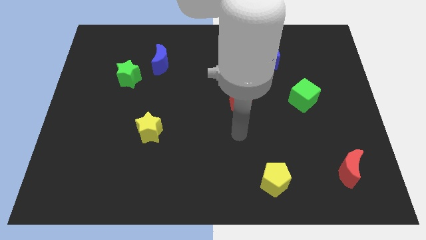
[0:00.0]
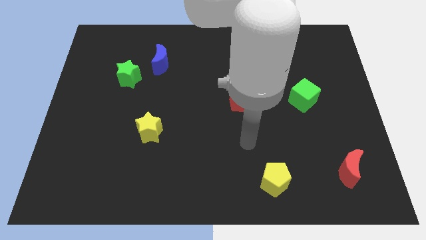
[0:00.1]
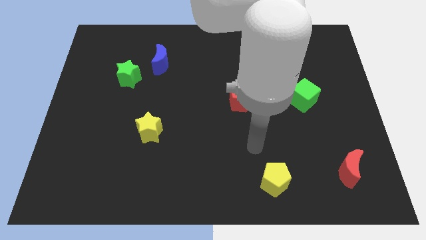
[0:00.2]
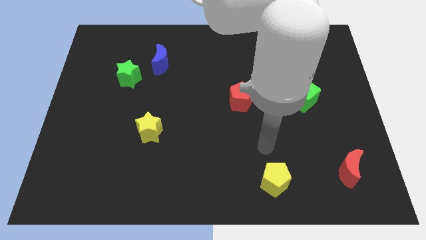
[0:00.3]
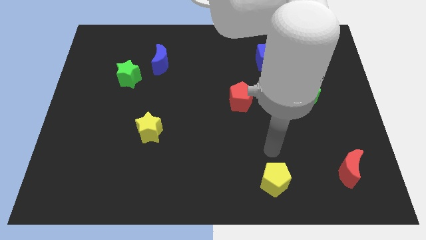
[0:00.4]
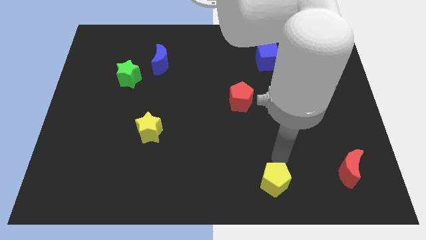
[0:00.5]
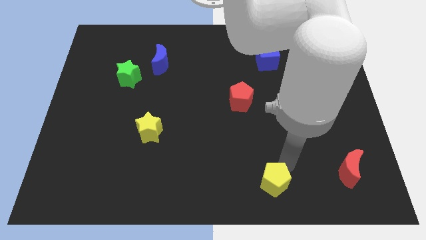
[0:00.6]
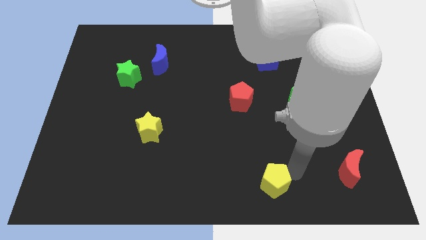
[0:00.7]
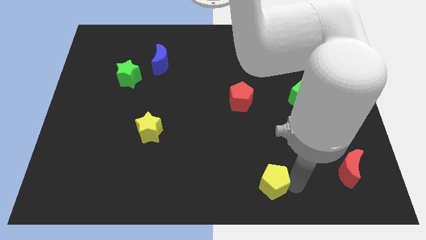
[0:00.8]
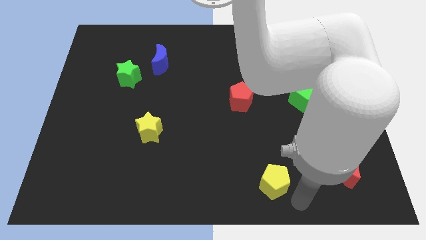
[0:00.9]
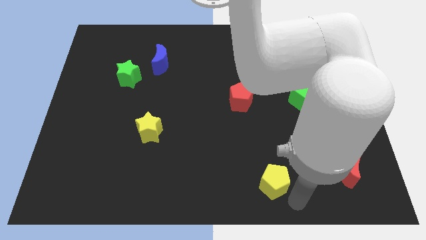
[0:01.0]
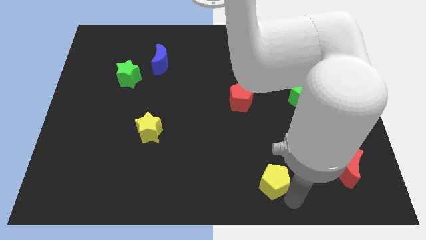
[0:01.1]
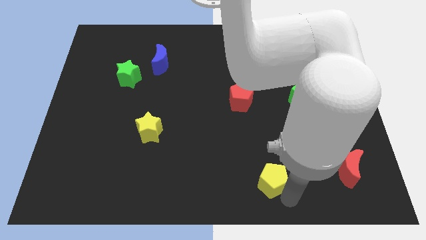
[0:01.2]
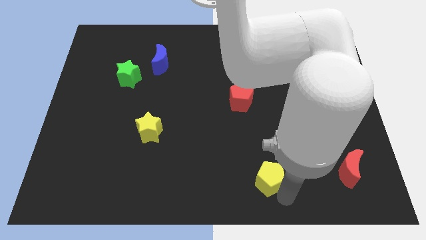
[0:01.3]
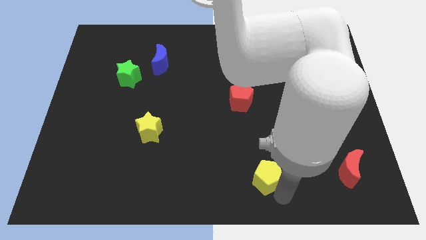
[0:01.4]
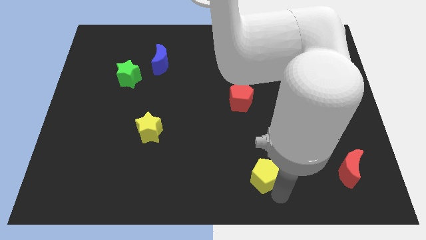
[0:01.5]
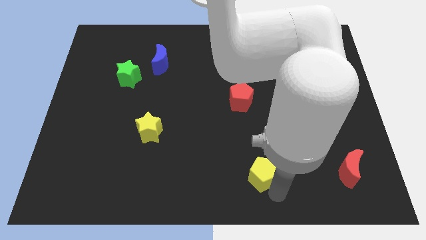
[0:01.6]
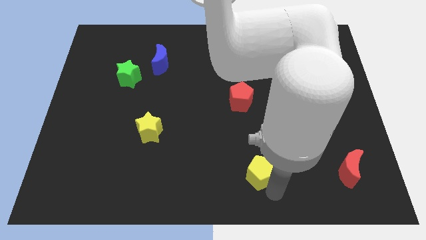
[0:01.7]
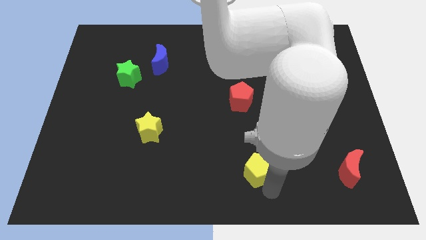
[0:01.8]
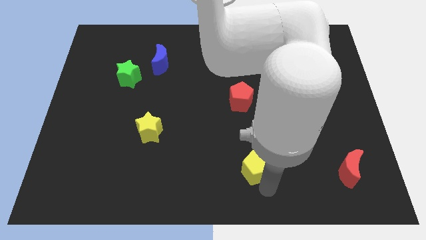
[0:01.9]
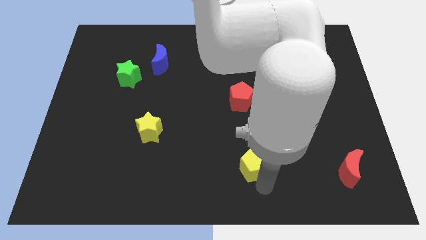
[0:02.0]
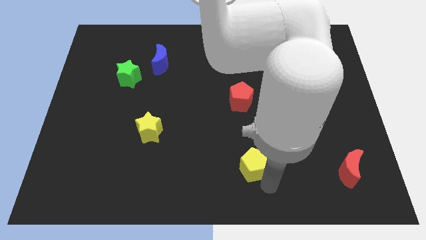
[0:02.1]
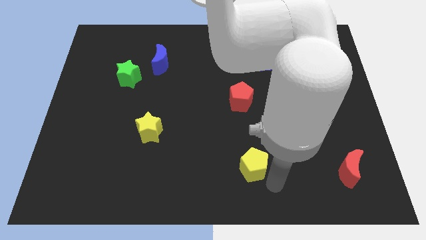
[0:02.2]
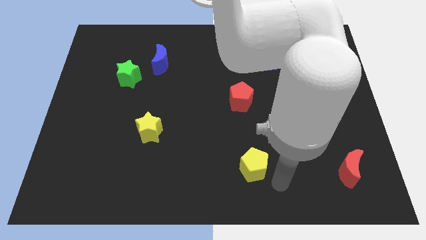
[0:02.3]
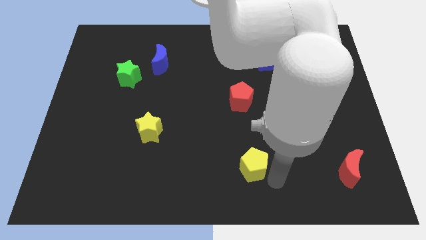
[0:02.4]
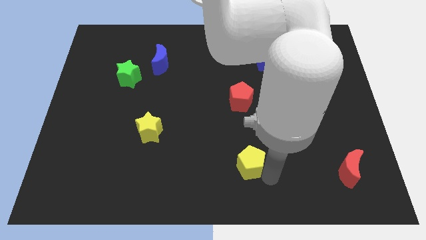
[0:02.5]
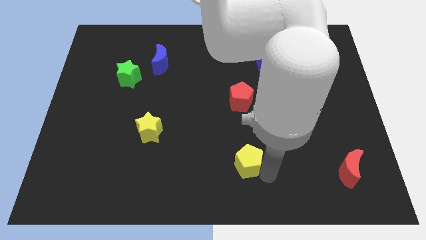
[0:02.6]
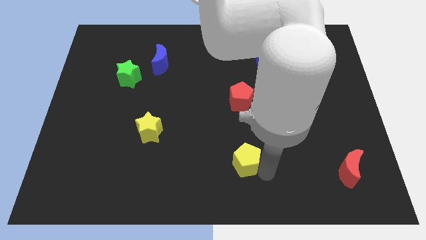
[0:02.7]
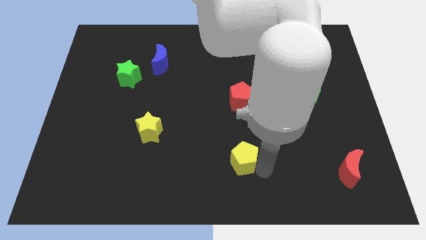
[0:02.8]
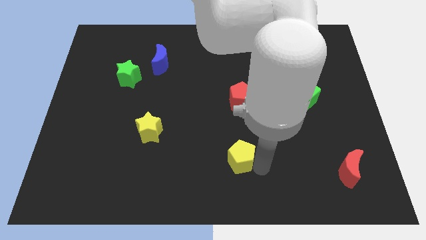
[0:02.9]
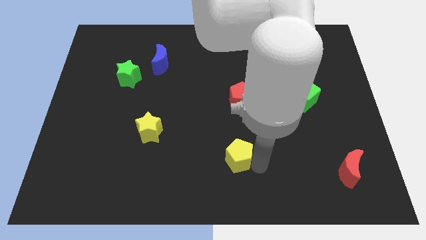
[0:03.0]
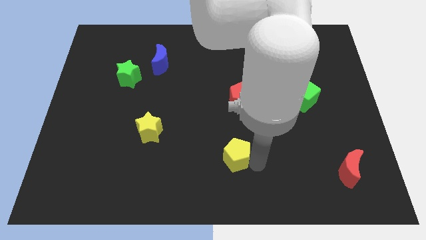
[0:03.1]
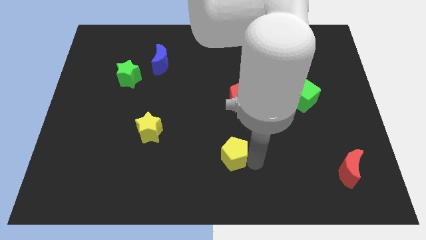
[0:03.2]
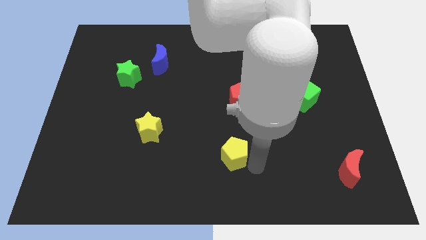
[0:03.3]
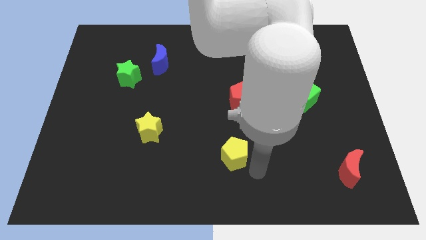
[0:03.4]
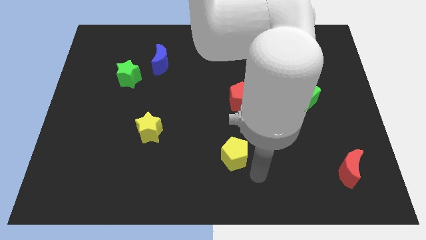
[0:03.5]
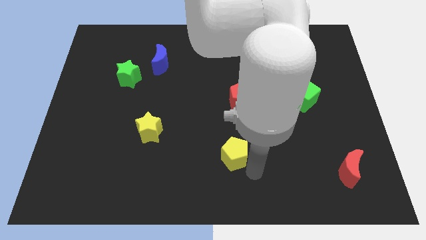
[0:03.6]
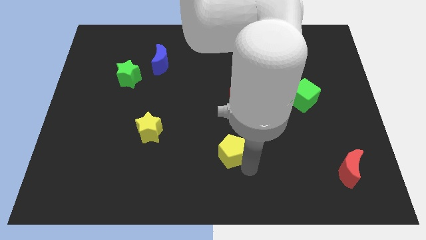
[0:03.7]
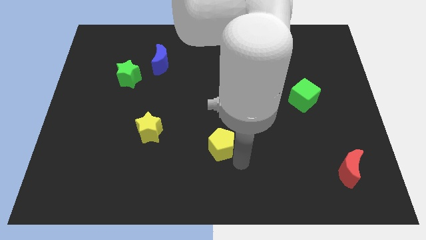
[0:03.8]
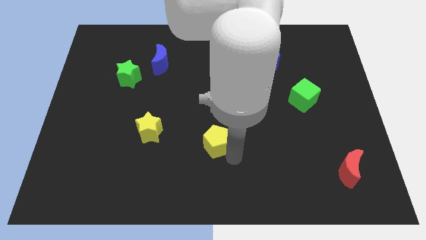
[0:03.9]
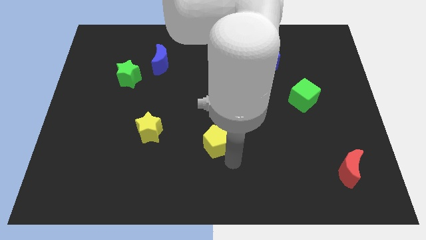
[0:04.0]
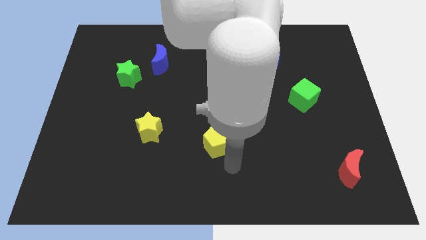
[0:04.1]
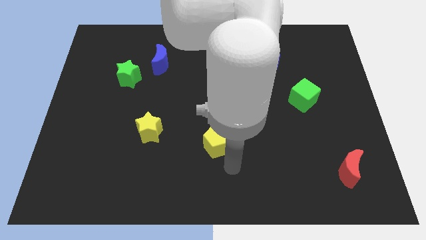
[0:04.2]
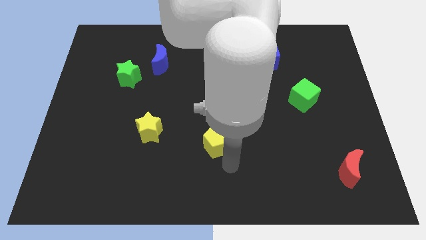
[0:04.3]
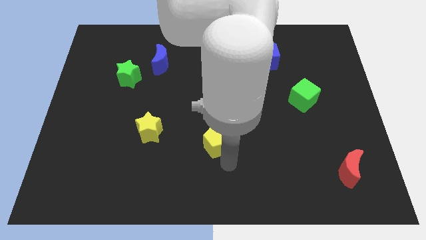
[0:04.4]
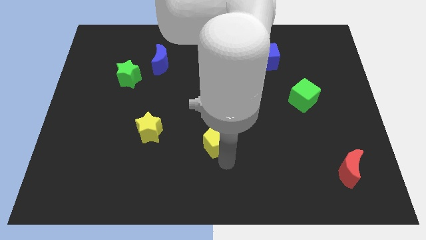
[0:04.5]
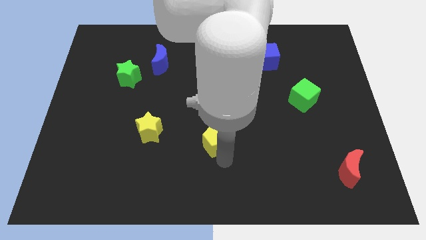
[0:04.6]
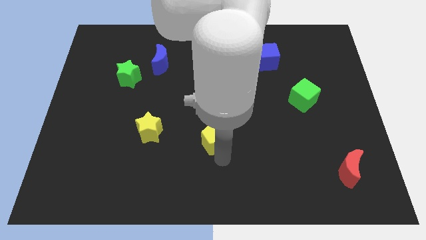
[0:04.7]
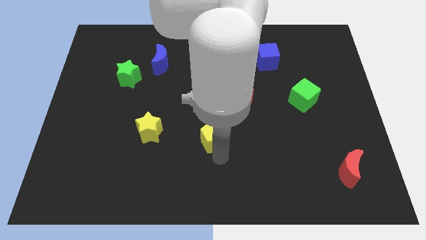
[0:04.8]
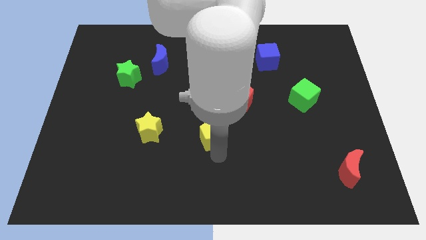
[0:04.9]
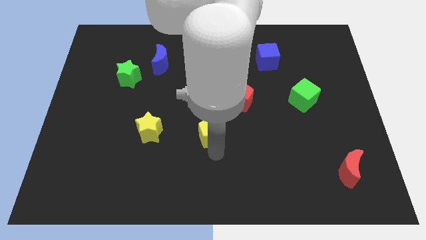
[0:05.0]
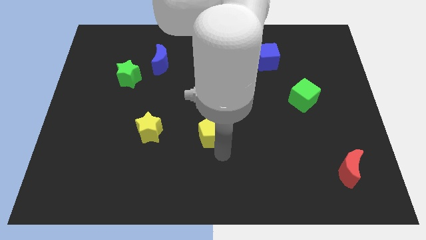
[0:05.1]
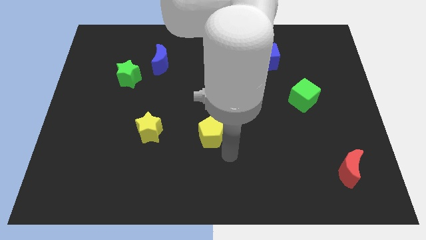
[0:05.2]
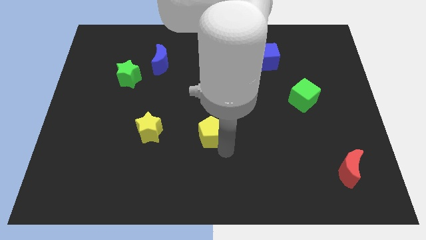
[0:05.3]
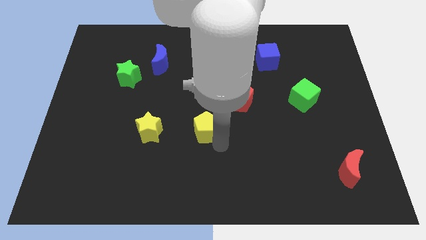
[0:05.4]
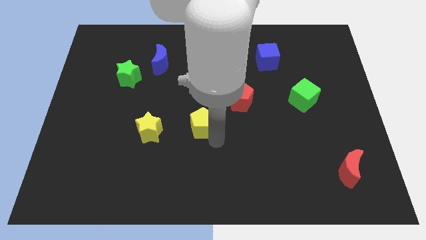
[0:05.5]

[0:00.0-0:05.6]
push the yellow pentagon diagonally up and left

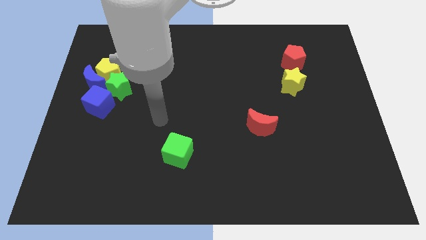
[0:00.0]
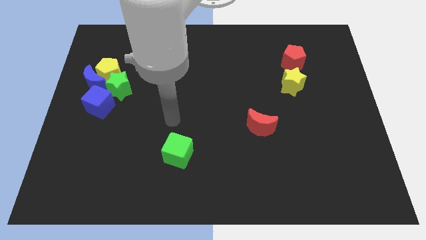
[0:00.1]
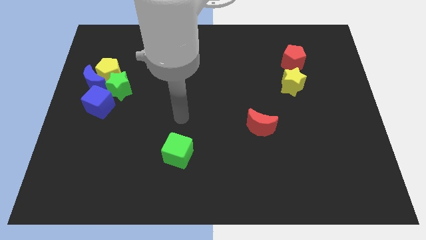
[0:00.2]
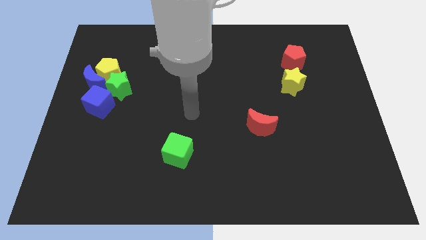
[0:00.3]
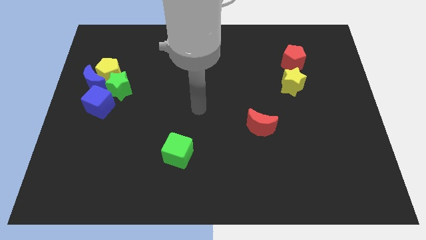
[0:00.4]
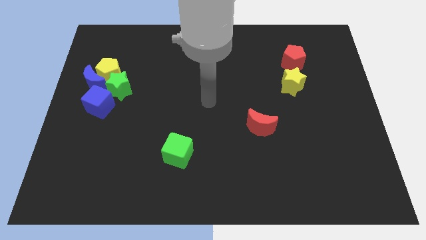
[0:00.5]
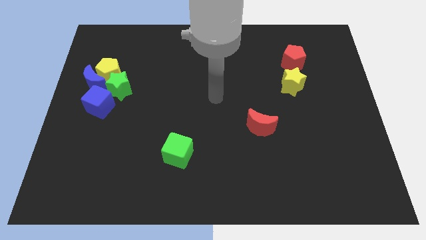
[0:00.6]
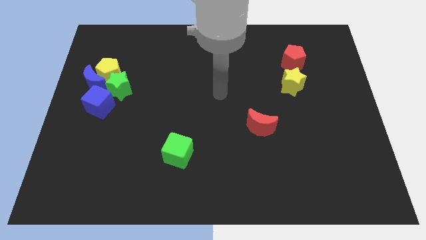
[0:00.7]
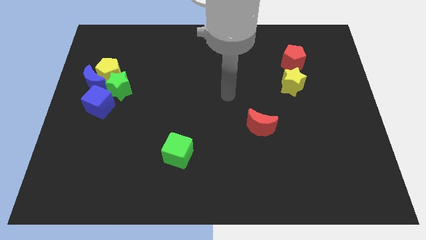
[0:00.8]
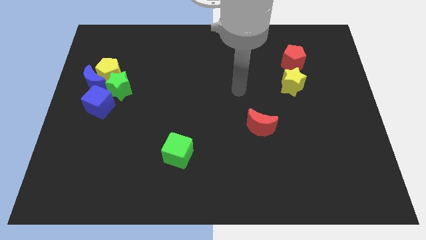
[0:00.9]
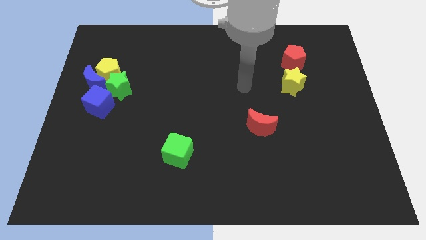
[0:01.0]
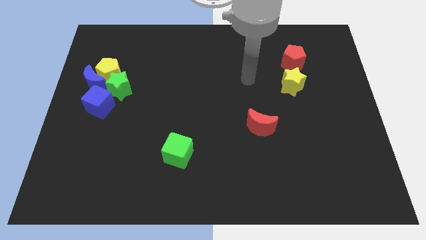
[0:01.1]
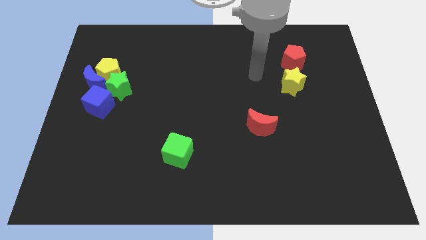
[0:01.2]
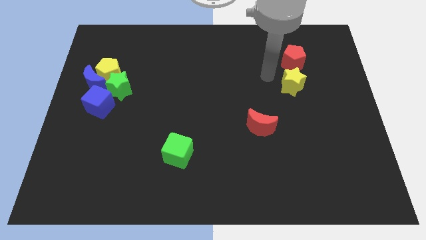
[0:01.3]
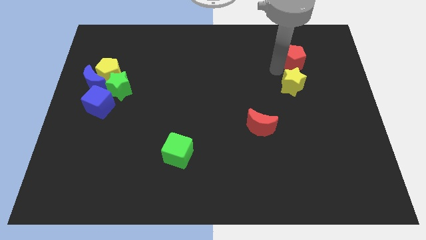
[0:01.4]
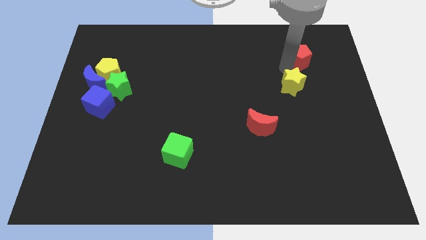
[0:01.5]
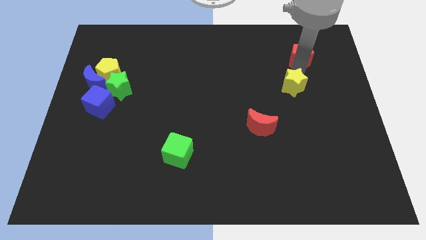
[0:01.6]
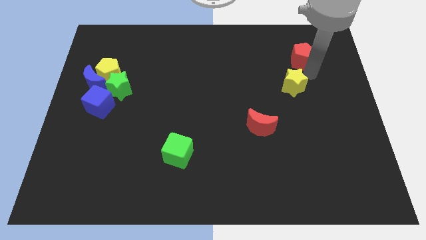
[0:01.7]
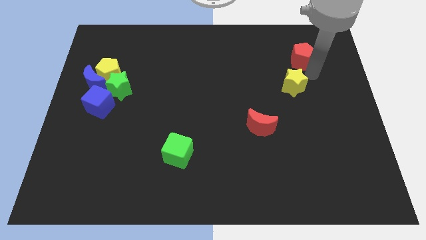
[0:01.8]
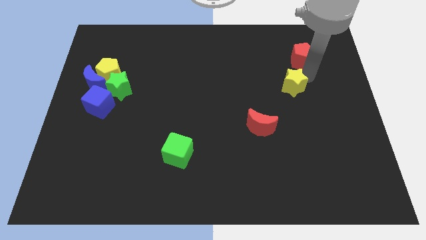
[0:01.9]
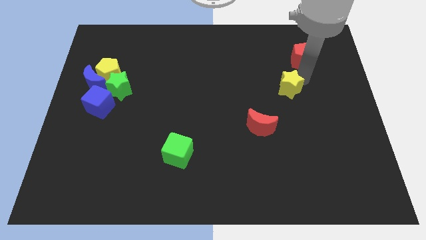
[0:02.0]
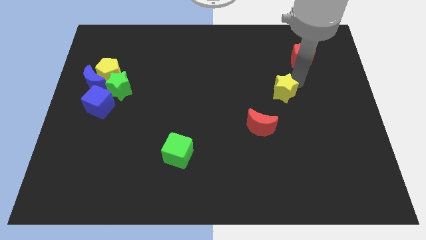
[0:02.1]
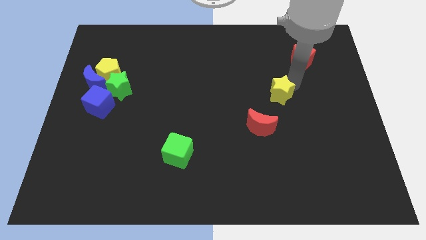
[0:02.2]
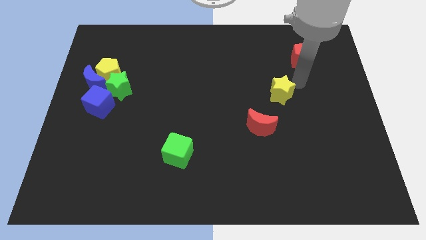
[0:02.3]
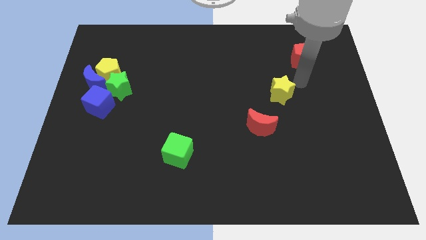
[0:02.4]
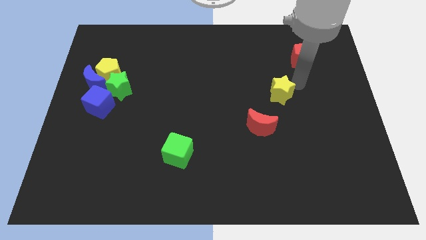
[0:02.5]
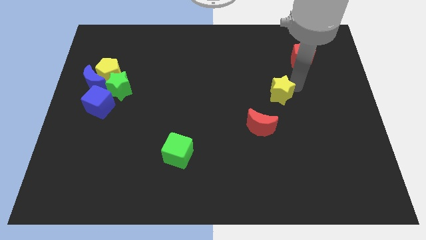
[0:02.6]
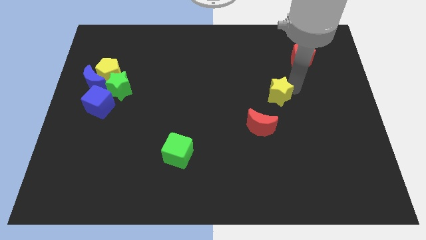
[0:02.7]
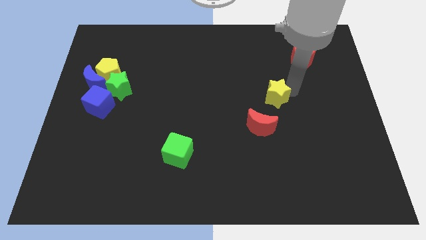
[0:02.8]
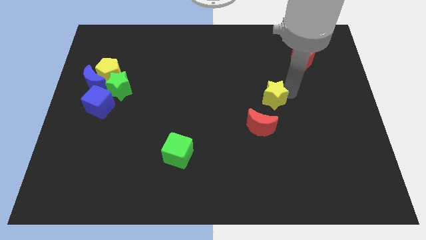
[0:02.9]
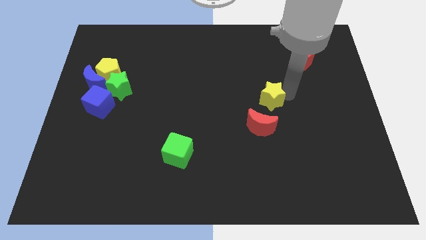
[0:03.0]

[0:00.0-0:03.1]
slide the yellow star slightly down and left
